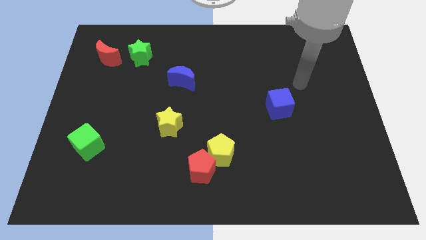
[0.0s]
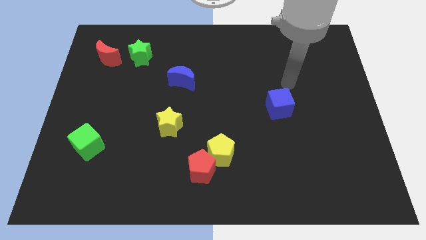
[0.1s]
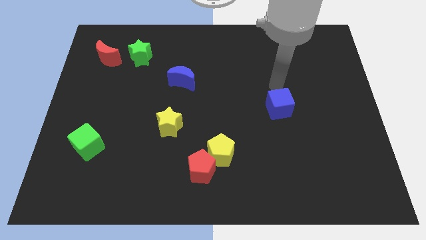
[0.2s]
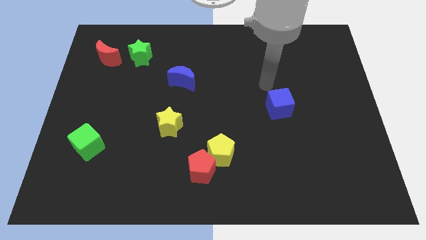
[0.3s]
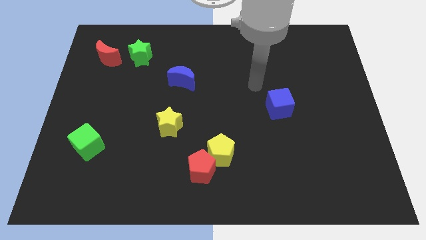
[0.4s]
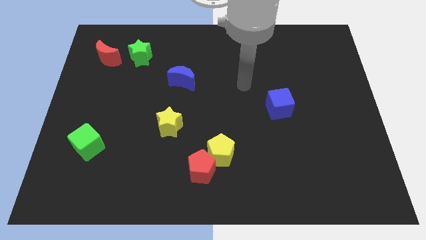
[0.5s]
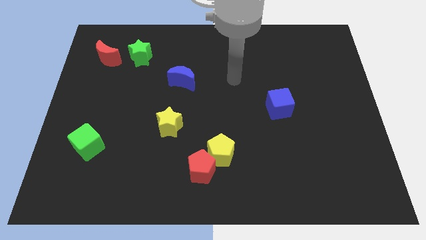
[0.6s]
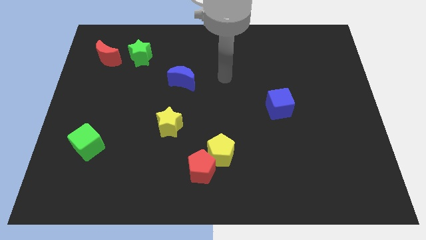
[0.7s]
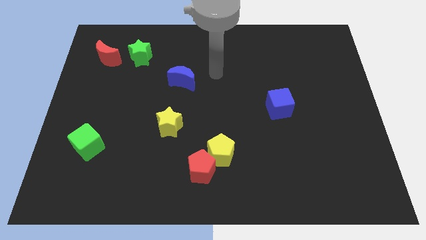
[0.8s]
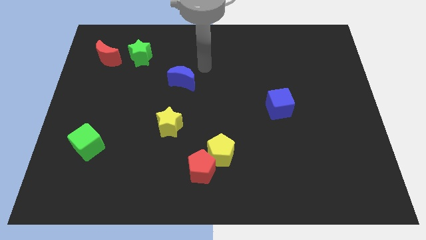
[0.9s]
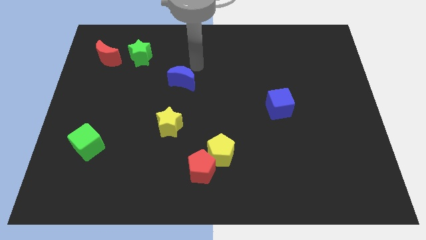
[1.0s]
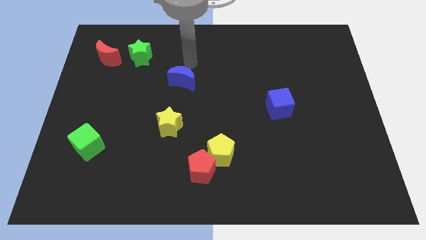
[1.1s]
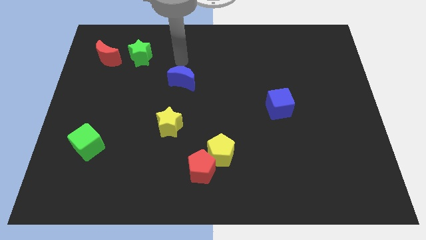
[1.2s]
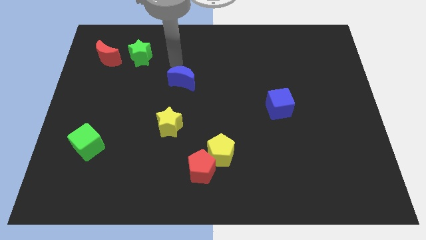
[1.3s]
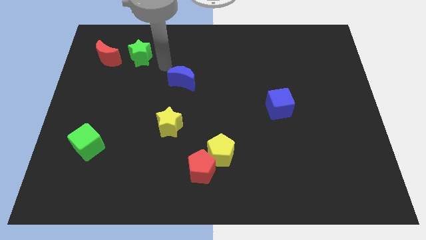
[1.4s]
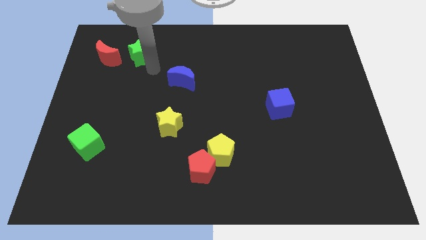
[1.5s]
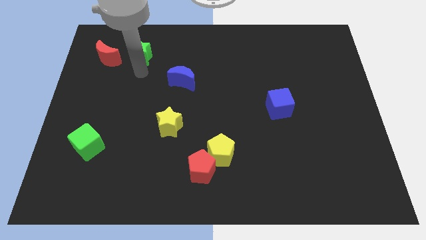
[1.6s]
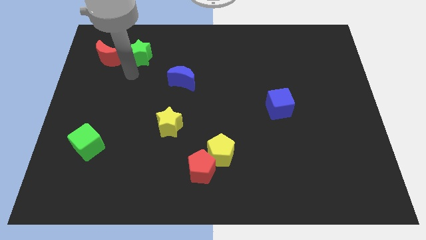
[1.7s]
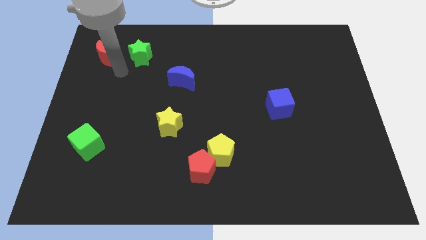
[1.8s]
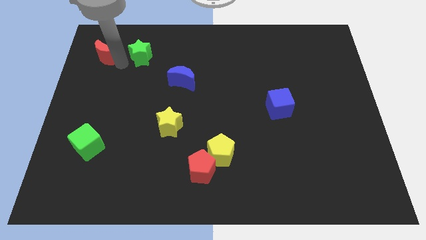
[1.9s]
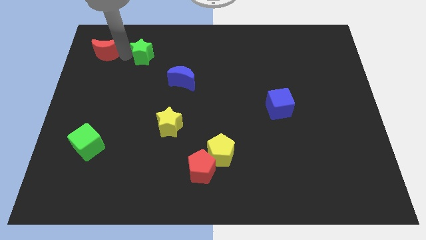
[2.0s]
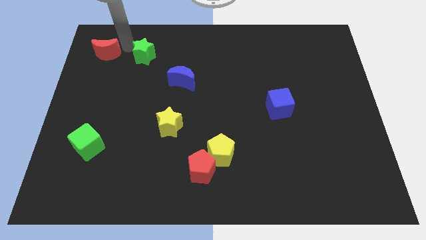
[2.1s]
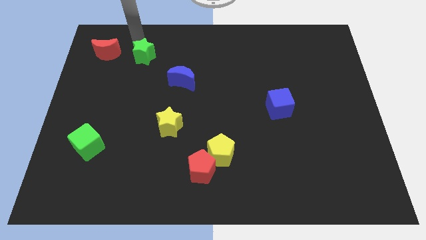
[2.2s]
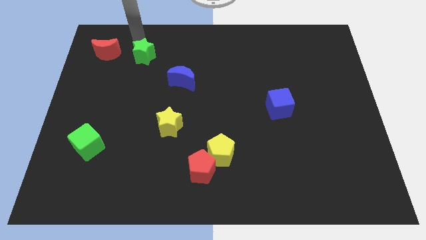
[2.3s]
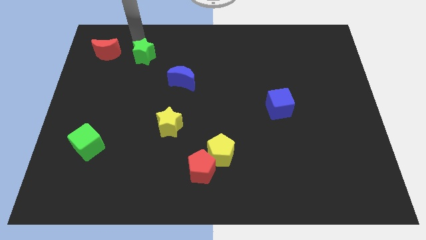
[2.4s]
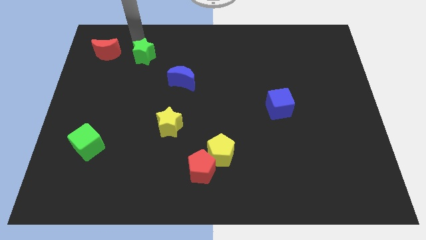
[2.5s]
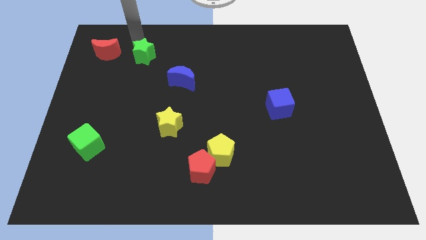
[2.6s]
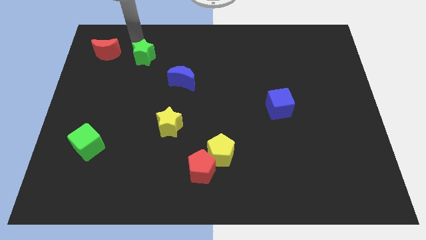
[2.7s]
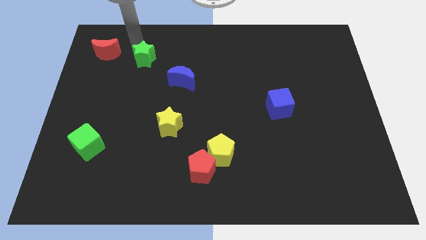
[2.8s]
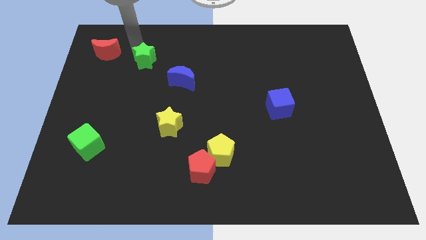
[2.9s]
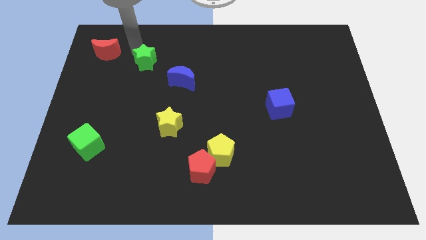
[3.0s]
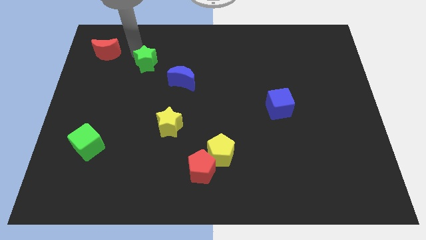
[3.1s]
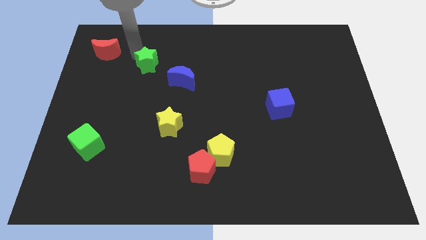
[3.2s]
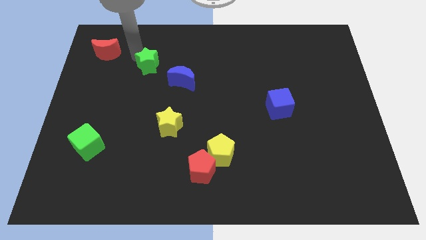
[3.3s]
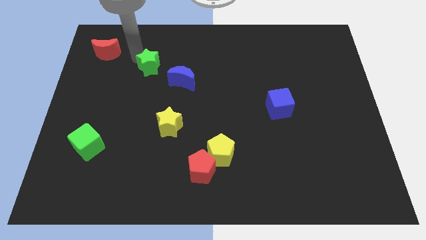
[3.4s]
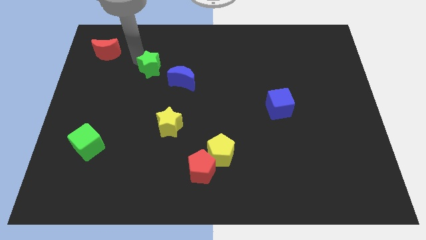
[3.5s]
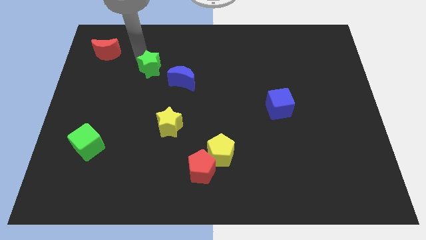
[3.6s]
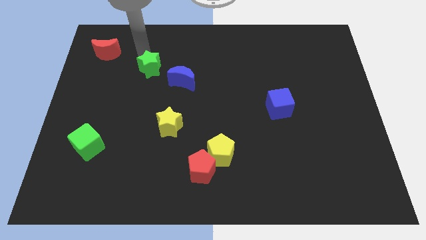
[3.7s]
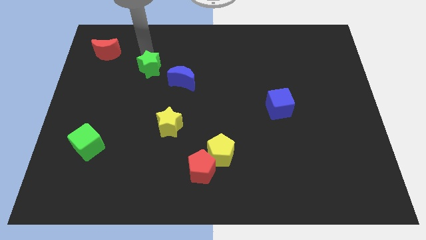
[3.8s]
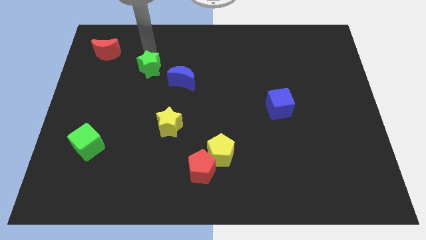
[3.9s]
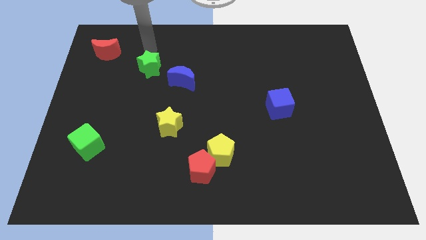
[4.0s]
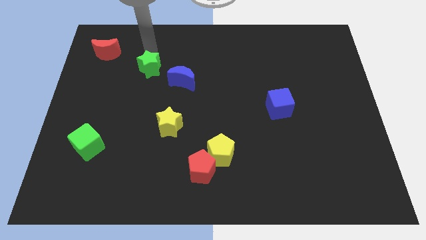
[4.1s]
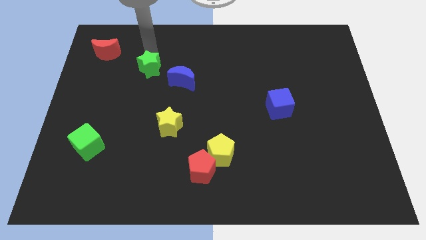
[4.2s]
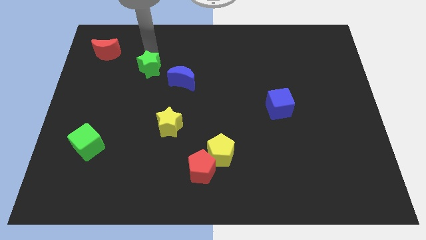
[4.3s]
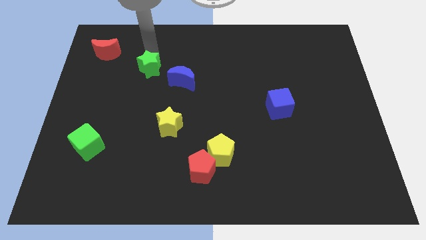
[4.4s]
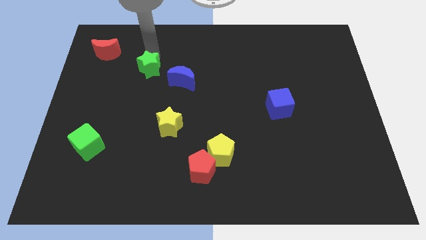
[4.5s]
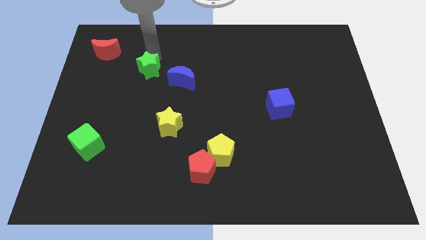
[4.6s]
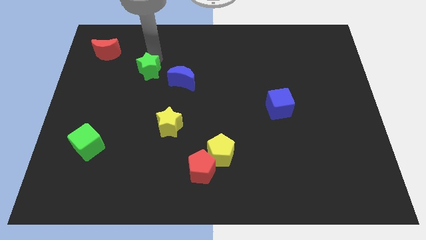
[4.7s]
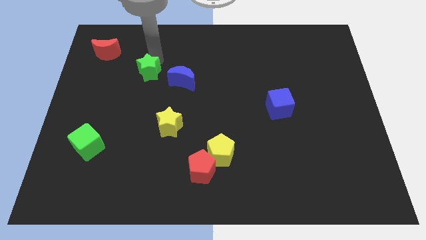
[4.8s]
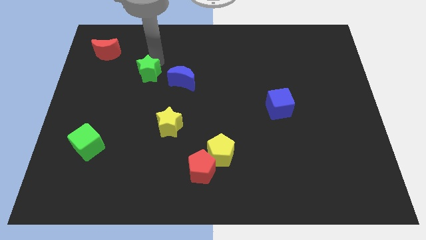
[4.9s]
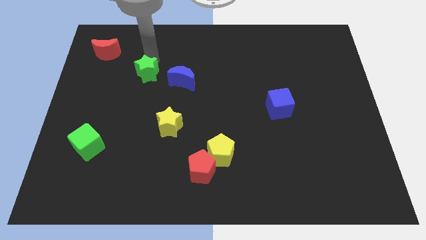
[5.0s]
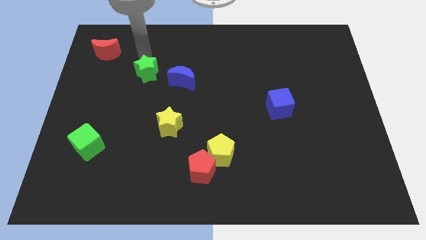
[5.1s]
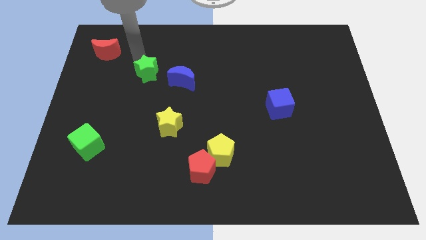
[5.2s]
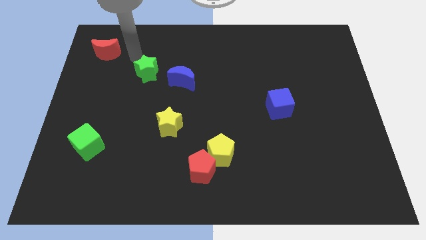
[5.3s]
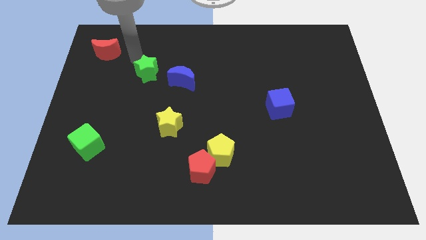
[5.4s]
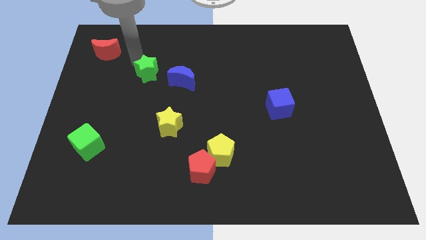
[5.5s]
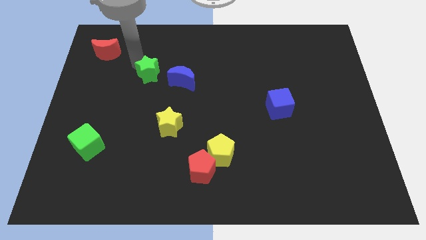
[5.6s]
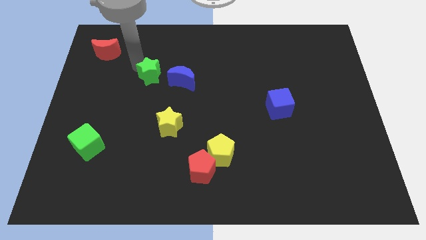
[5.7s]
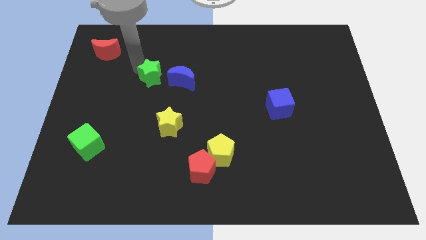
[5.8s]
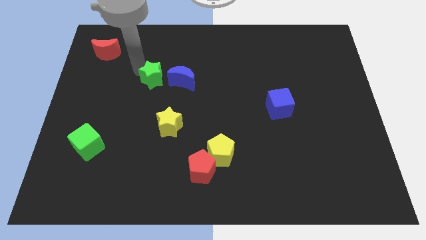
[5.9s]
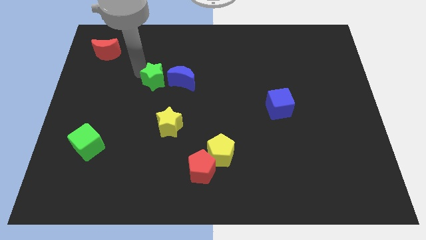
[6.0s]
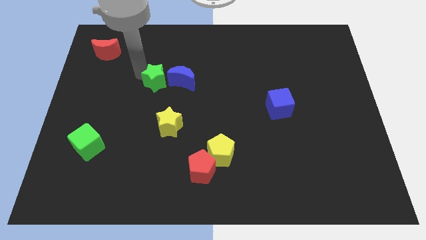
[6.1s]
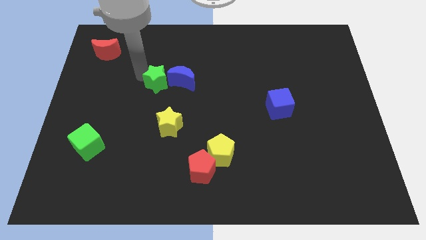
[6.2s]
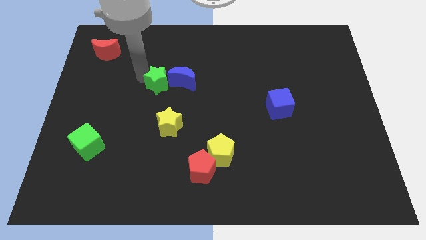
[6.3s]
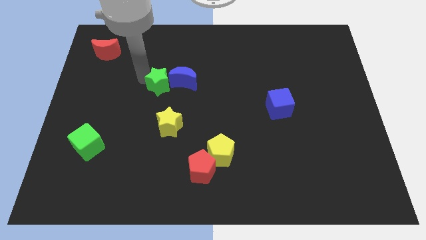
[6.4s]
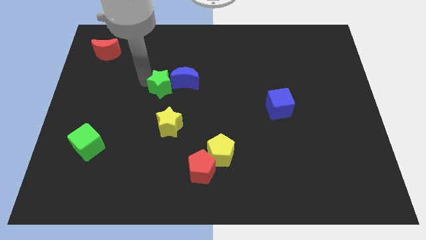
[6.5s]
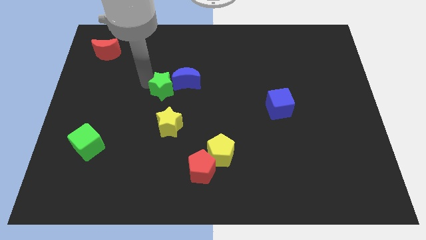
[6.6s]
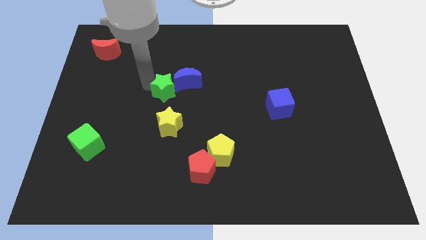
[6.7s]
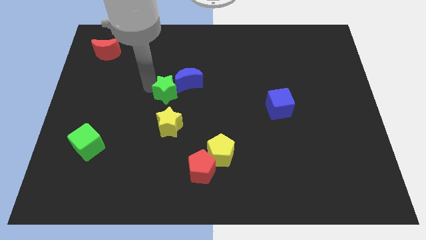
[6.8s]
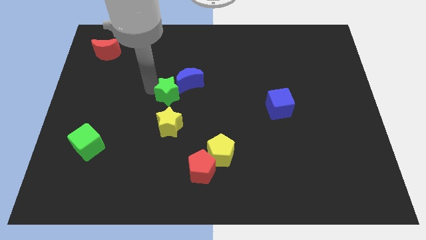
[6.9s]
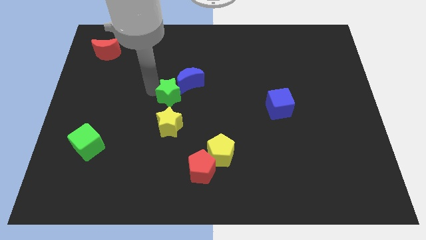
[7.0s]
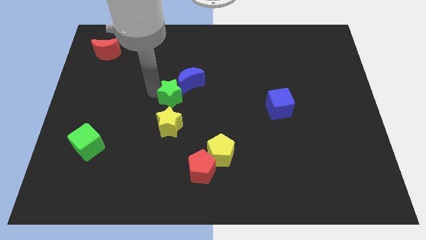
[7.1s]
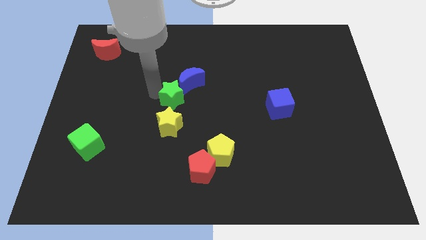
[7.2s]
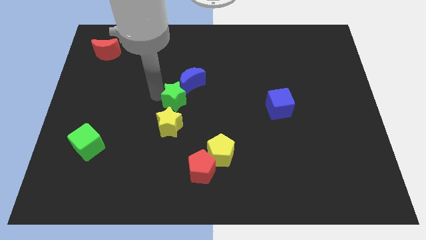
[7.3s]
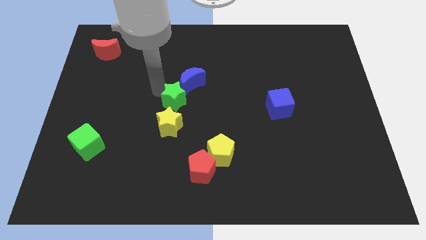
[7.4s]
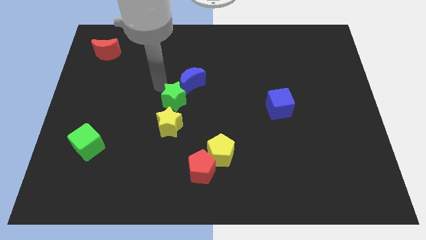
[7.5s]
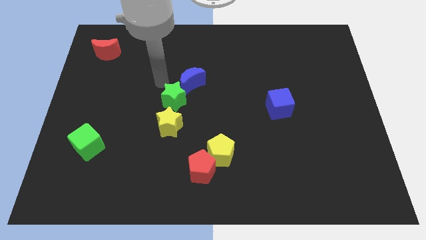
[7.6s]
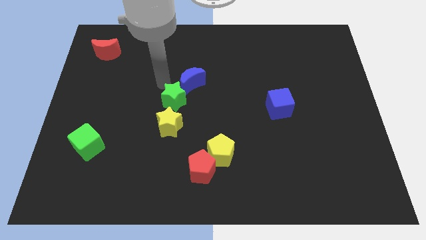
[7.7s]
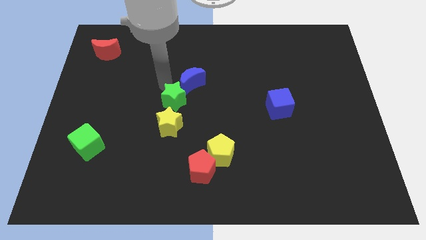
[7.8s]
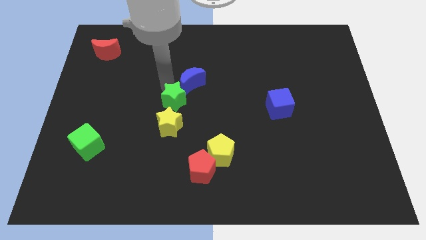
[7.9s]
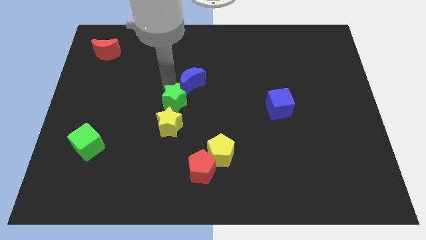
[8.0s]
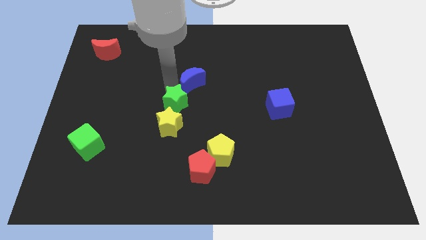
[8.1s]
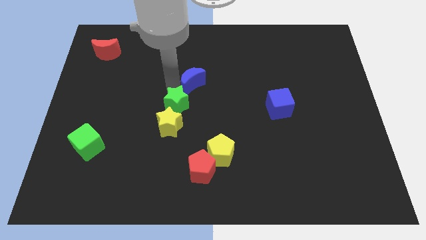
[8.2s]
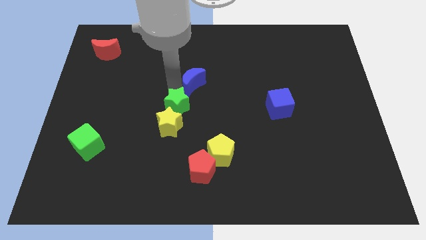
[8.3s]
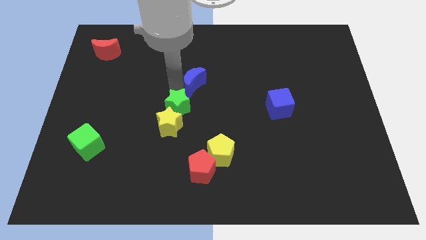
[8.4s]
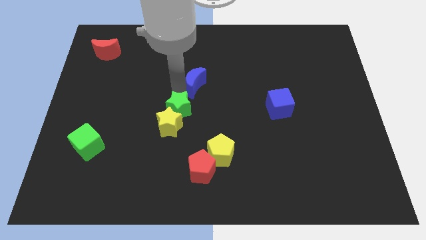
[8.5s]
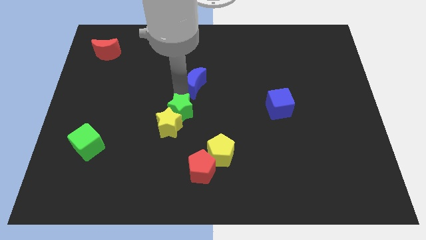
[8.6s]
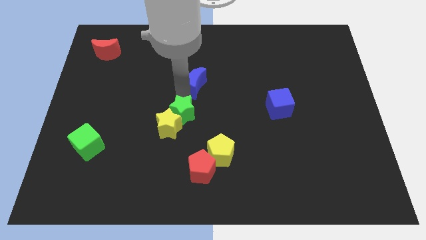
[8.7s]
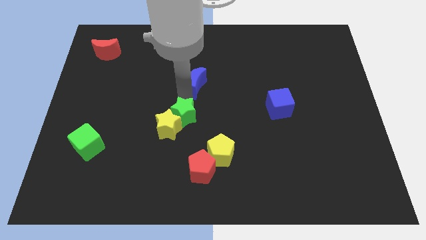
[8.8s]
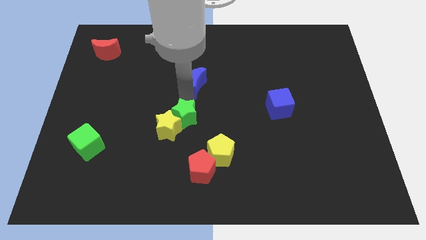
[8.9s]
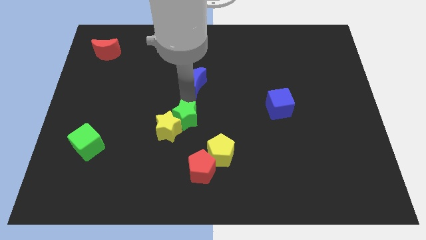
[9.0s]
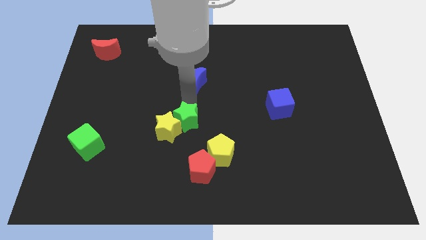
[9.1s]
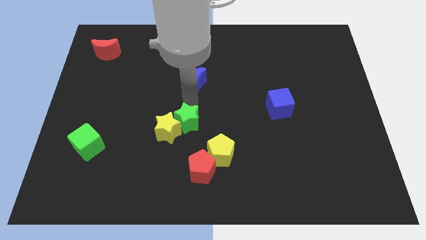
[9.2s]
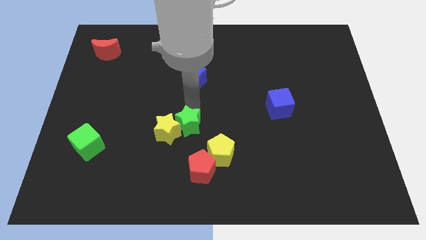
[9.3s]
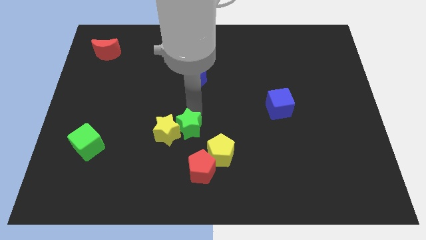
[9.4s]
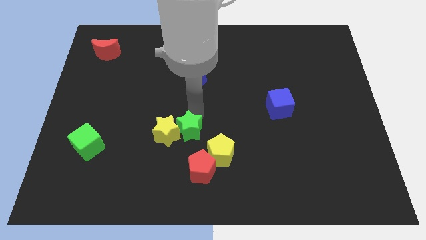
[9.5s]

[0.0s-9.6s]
move the green star to the bottom right side of the yellow star
